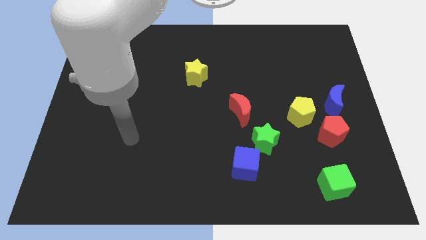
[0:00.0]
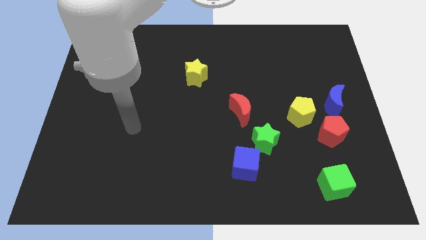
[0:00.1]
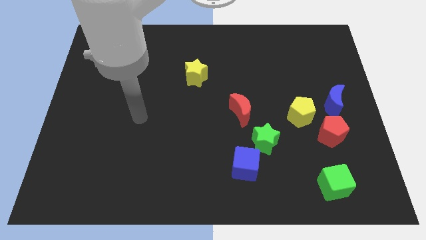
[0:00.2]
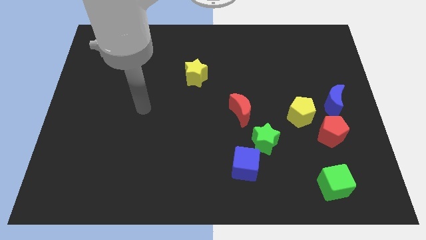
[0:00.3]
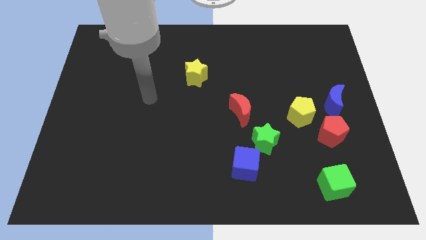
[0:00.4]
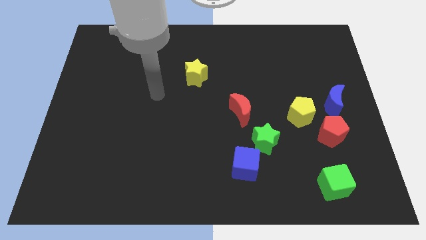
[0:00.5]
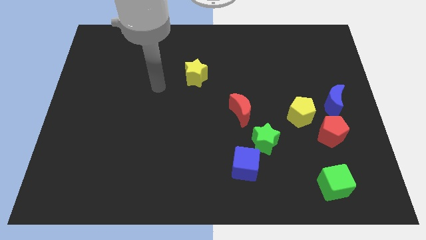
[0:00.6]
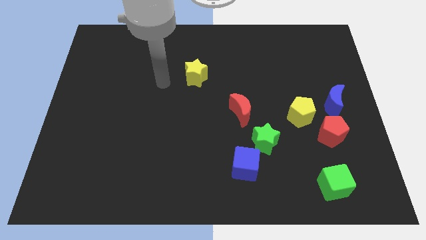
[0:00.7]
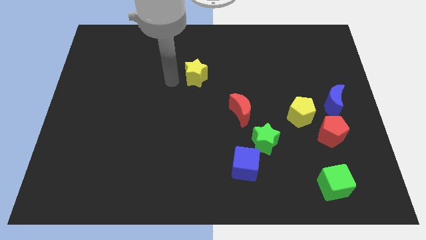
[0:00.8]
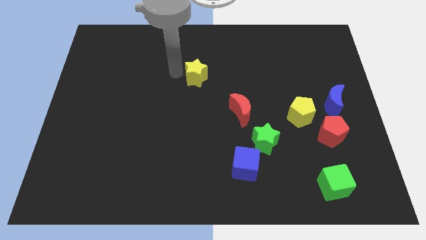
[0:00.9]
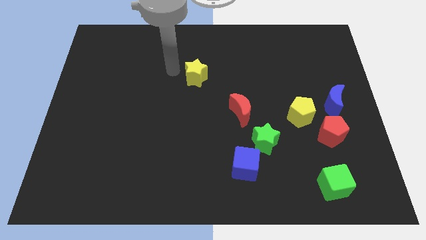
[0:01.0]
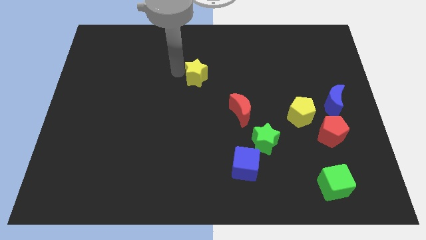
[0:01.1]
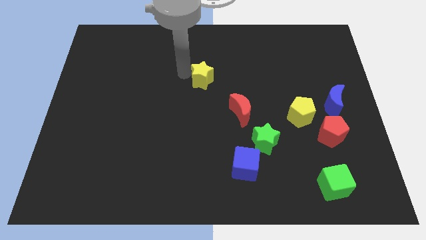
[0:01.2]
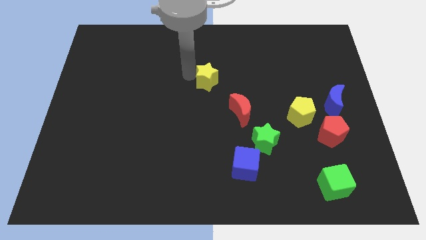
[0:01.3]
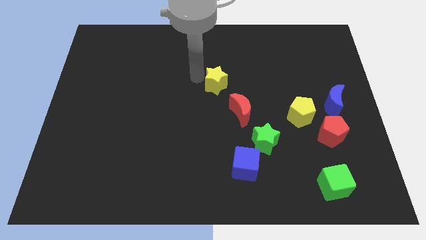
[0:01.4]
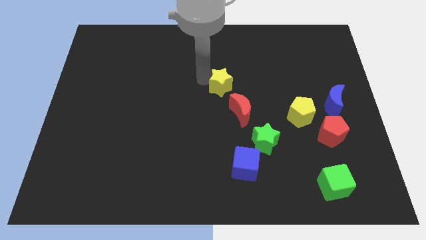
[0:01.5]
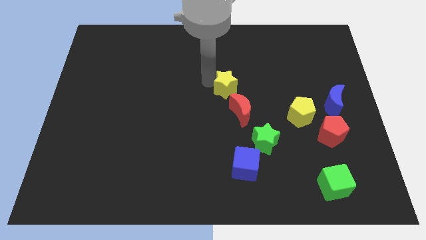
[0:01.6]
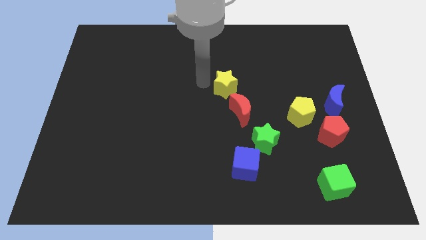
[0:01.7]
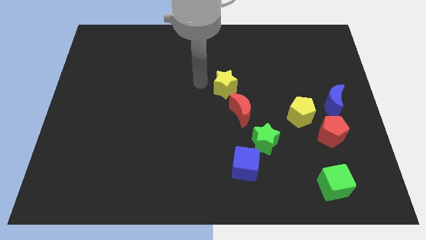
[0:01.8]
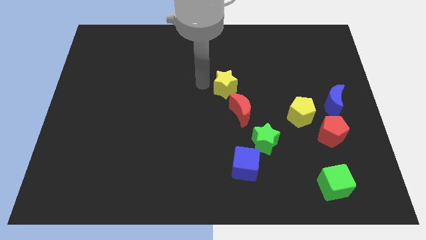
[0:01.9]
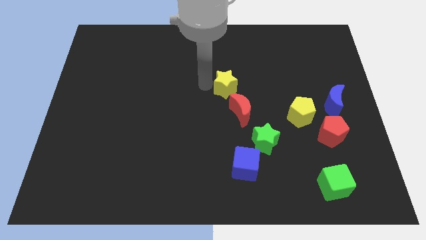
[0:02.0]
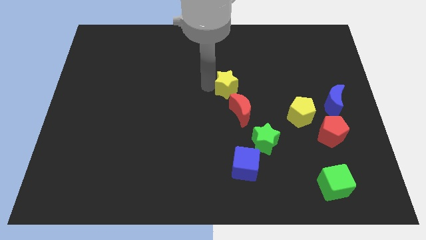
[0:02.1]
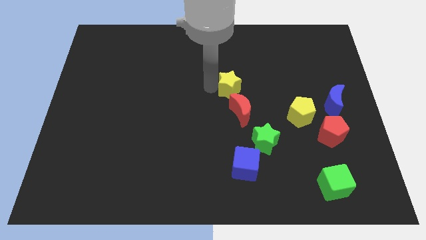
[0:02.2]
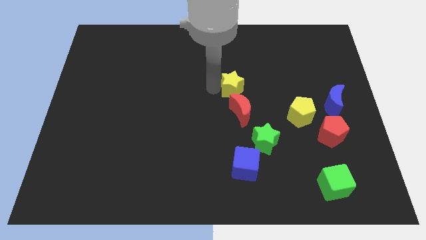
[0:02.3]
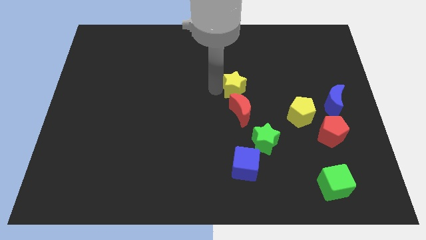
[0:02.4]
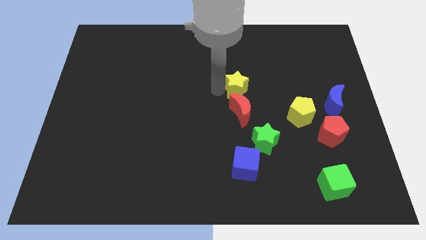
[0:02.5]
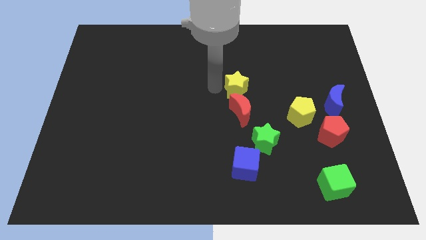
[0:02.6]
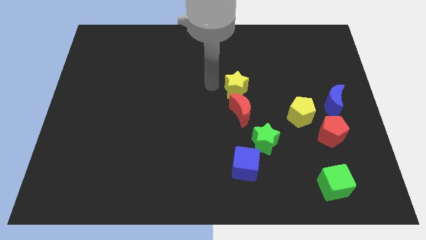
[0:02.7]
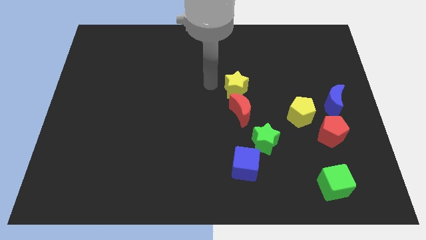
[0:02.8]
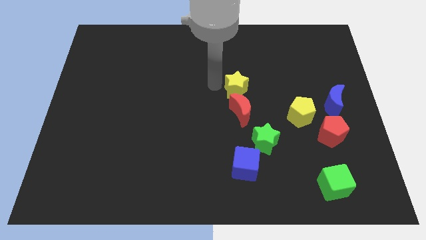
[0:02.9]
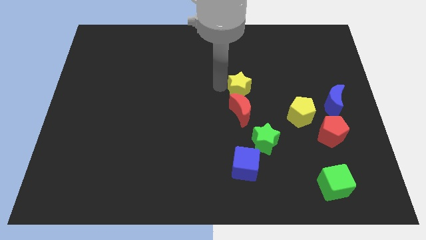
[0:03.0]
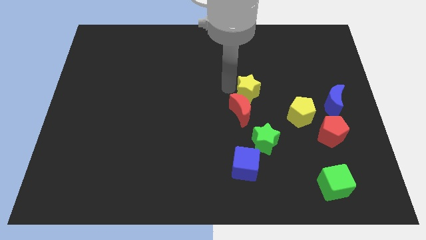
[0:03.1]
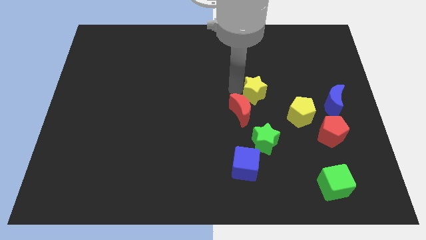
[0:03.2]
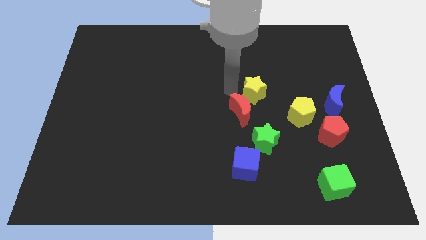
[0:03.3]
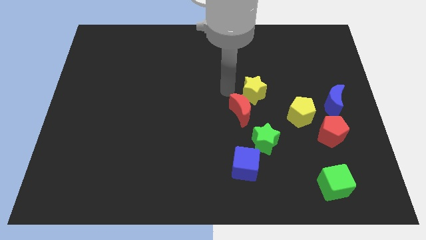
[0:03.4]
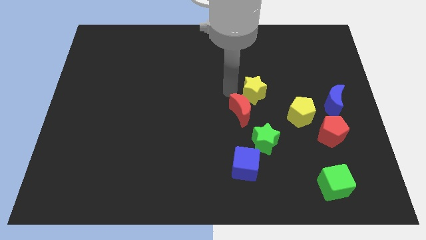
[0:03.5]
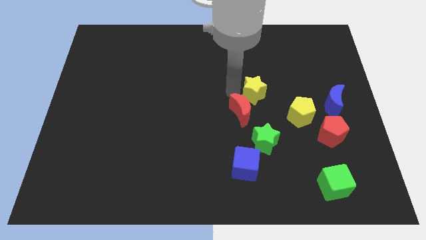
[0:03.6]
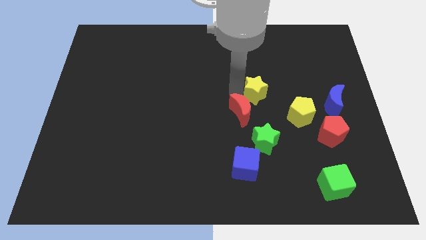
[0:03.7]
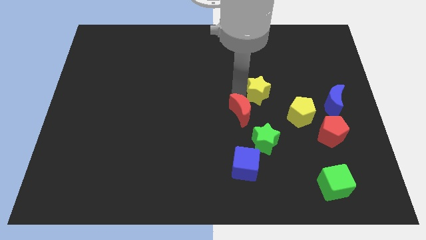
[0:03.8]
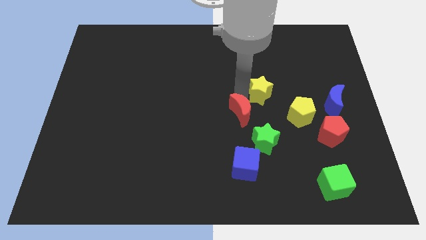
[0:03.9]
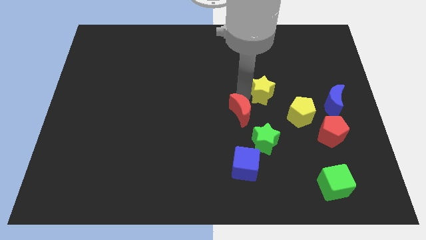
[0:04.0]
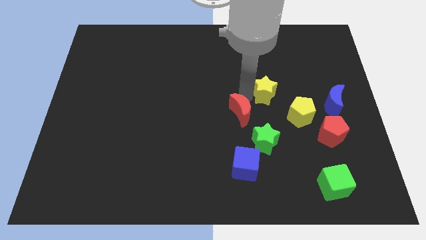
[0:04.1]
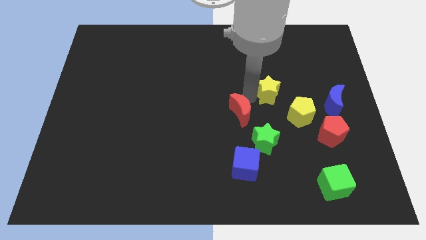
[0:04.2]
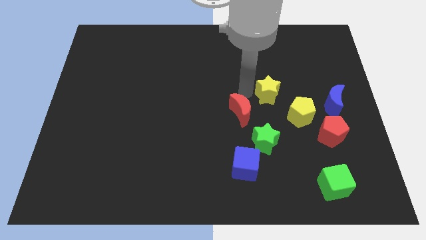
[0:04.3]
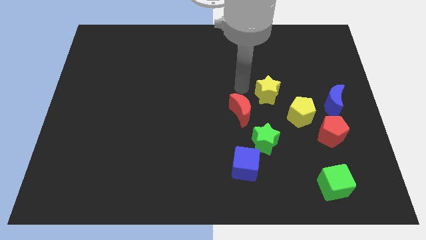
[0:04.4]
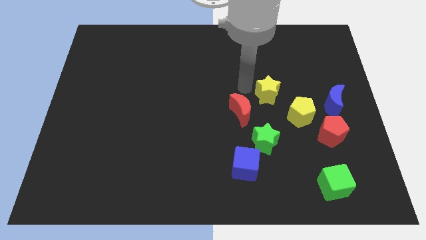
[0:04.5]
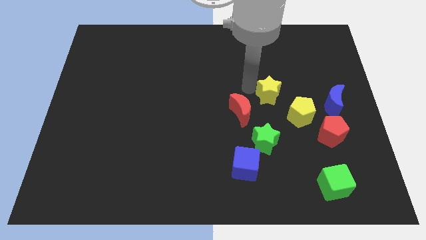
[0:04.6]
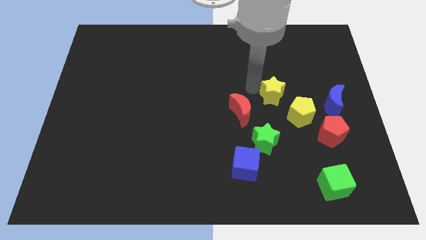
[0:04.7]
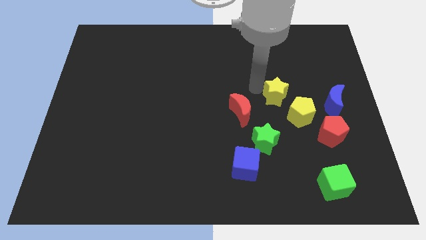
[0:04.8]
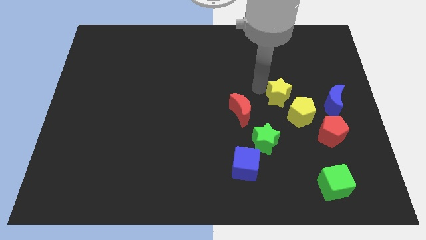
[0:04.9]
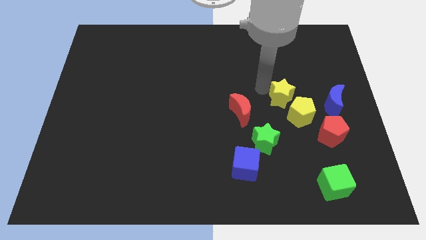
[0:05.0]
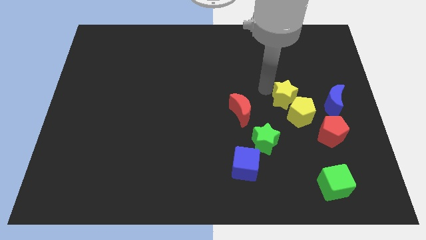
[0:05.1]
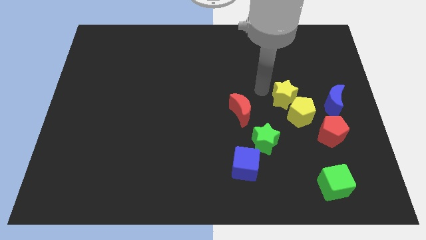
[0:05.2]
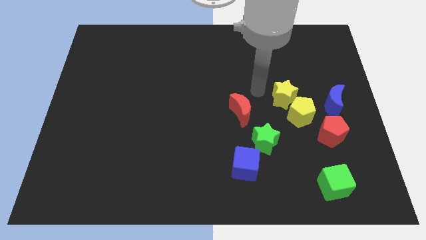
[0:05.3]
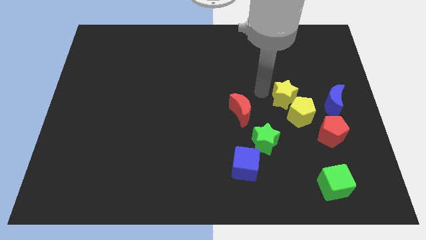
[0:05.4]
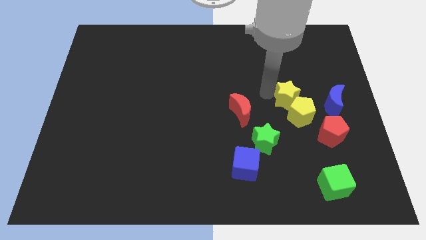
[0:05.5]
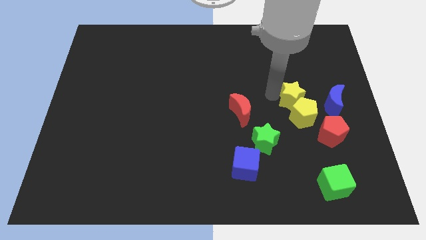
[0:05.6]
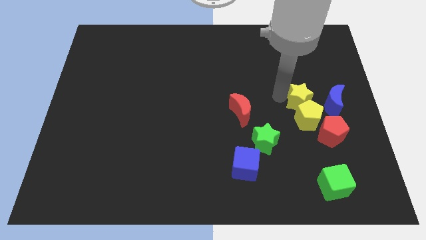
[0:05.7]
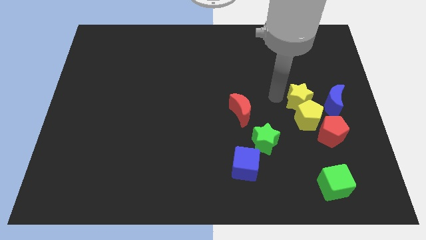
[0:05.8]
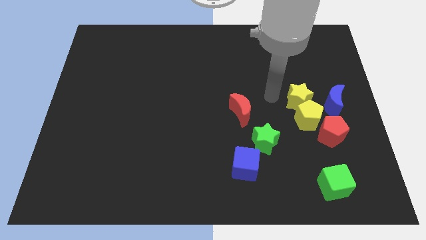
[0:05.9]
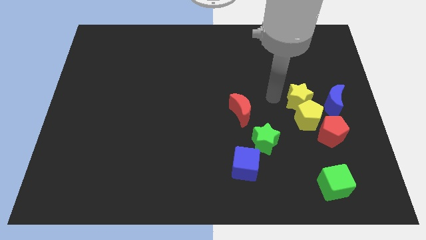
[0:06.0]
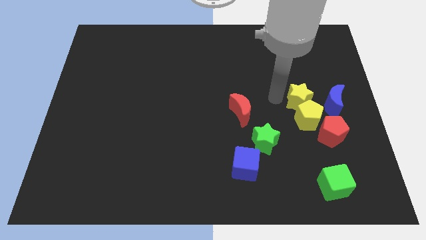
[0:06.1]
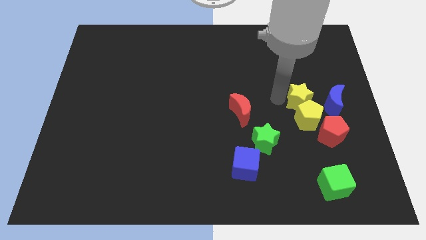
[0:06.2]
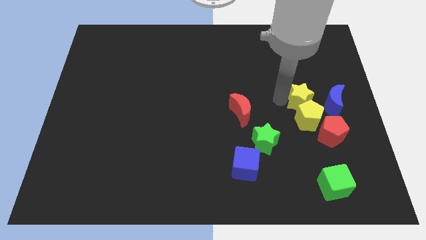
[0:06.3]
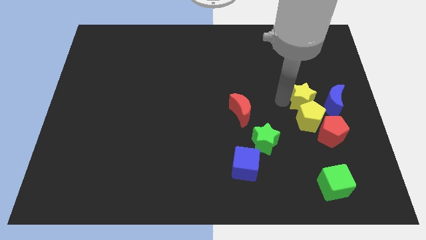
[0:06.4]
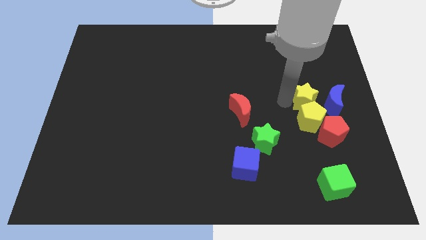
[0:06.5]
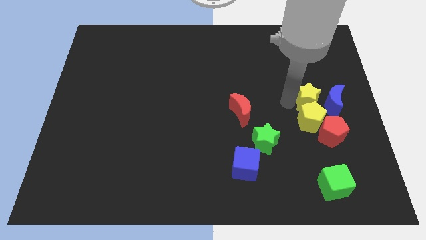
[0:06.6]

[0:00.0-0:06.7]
put the yellow star next to the blue moon
